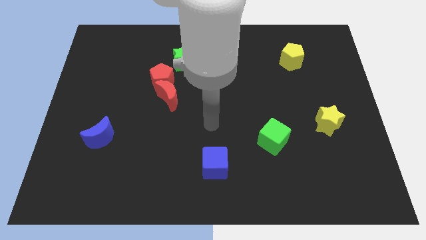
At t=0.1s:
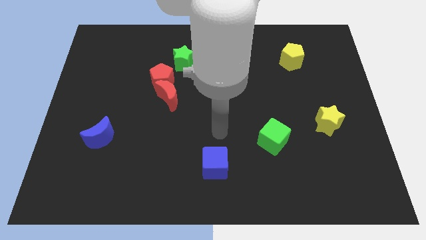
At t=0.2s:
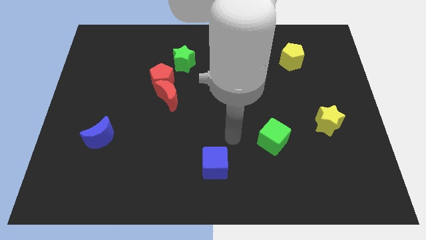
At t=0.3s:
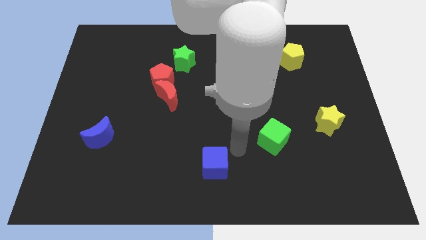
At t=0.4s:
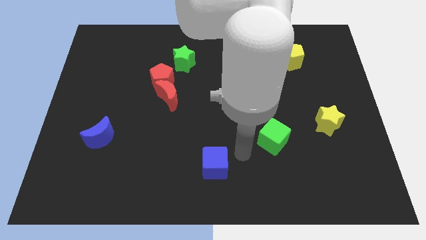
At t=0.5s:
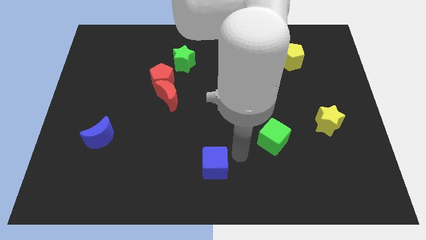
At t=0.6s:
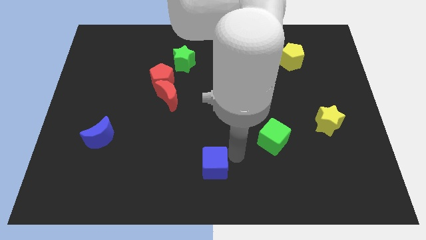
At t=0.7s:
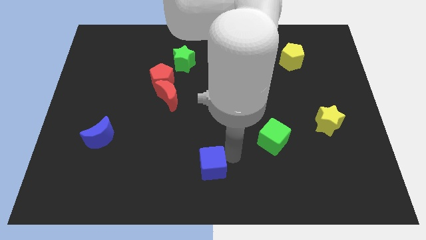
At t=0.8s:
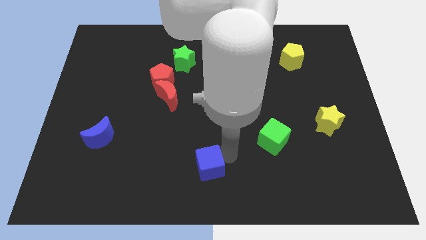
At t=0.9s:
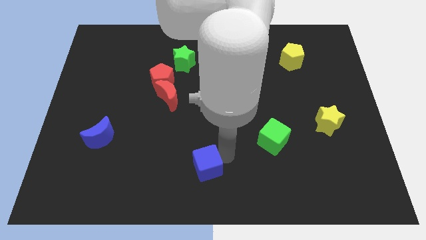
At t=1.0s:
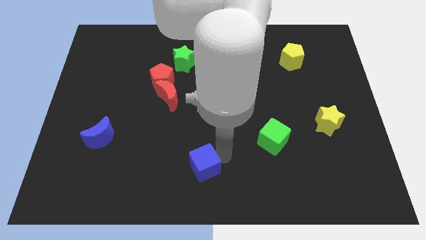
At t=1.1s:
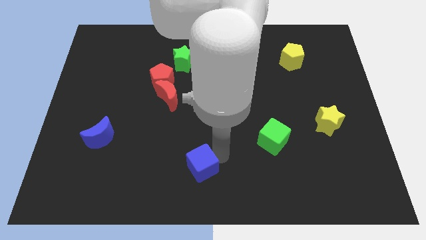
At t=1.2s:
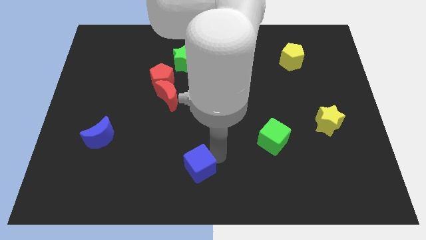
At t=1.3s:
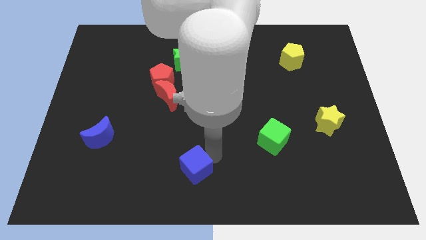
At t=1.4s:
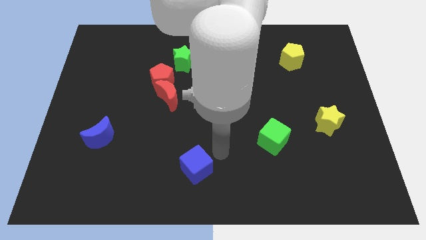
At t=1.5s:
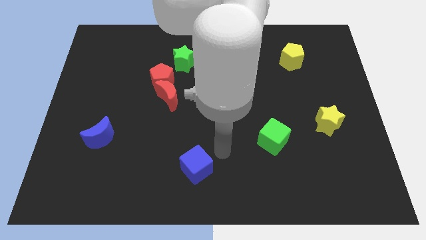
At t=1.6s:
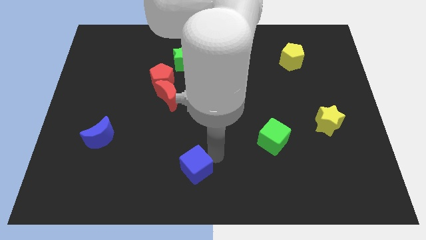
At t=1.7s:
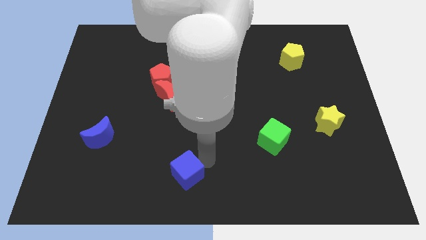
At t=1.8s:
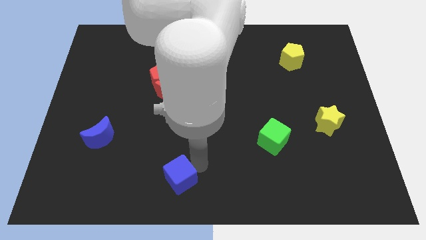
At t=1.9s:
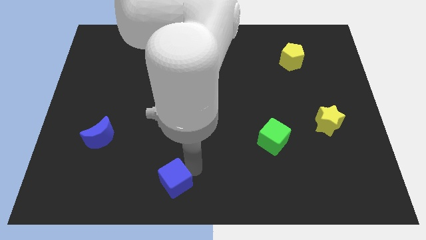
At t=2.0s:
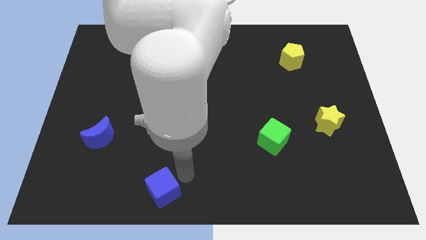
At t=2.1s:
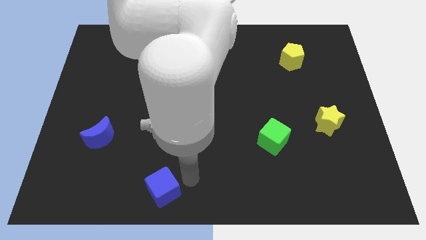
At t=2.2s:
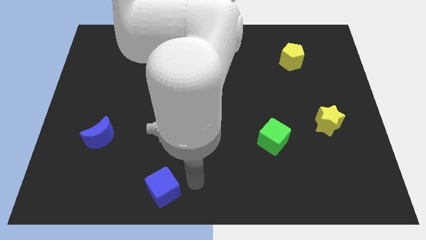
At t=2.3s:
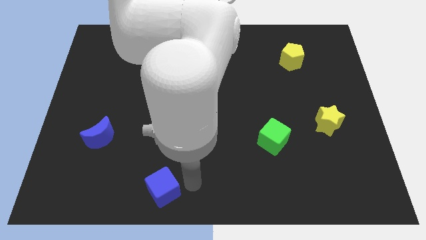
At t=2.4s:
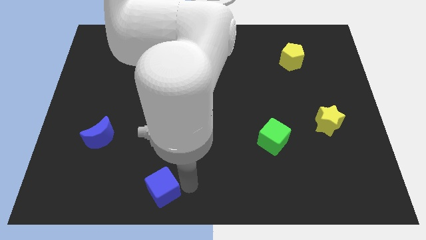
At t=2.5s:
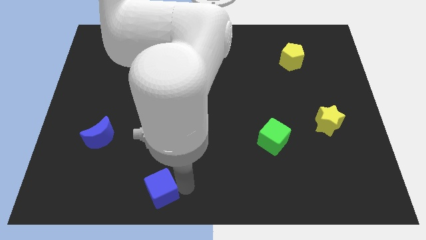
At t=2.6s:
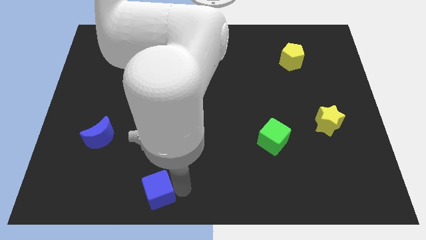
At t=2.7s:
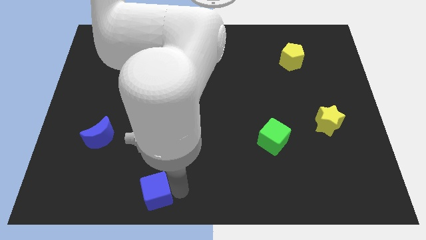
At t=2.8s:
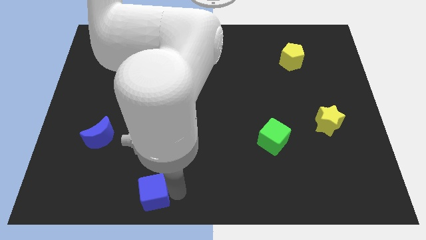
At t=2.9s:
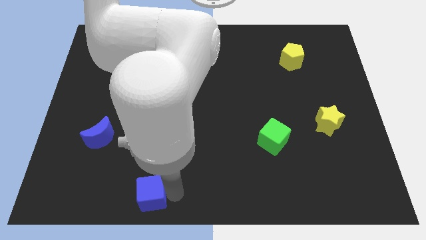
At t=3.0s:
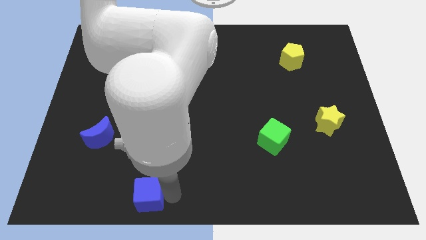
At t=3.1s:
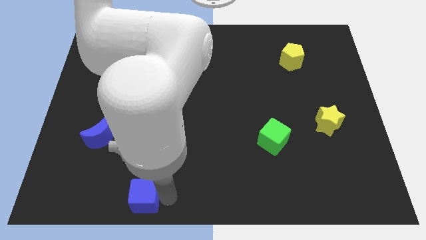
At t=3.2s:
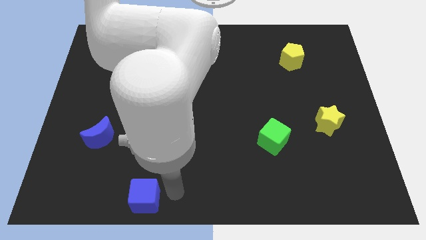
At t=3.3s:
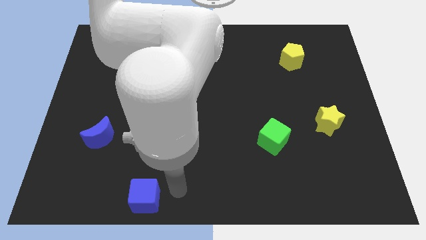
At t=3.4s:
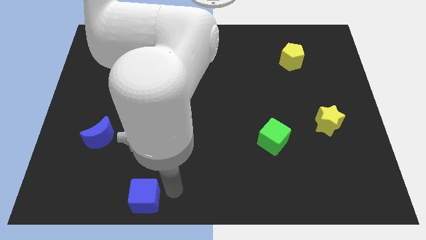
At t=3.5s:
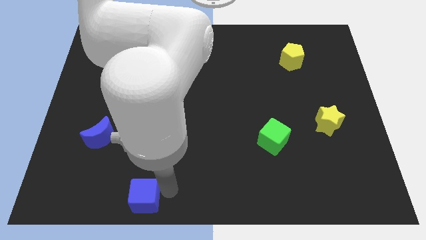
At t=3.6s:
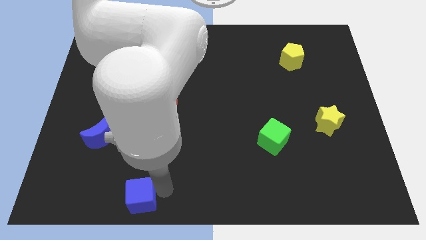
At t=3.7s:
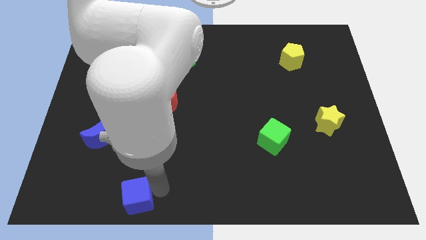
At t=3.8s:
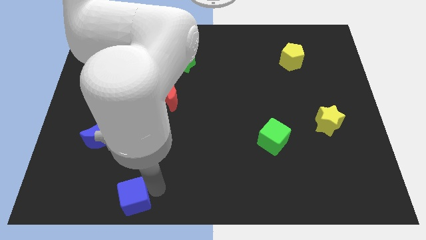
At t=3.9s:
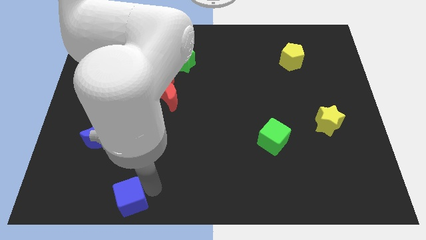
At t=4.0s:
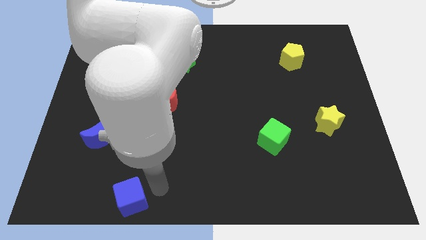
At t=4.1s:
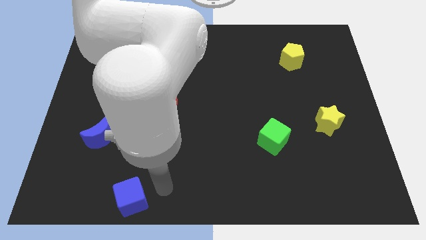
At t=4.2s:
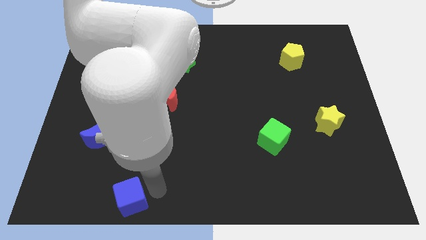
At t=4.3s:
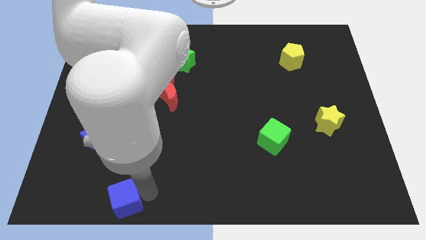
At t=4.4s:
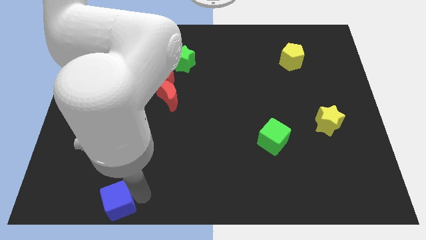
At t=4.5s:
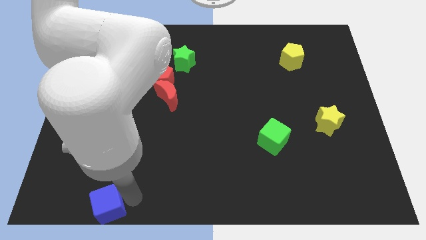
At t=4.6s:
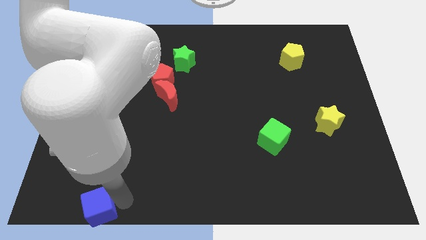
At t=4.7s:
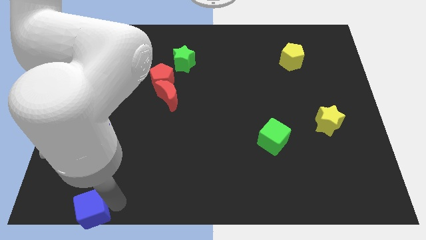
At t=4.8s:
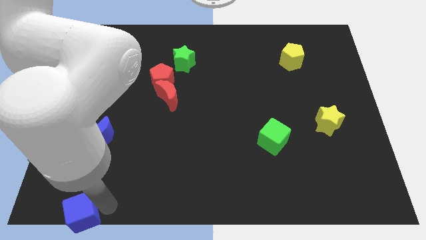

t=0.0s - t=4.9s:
put the blue cube to the bottom left

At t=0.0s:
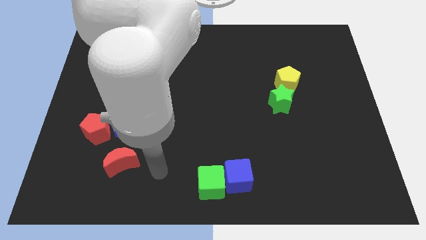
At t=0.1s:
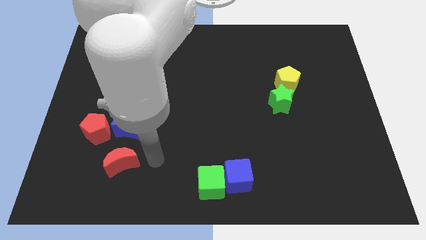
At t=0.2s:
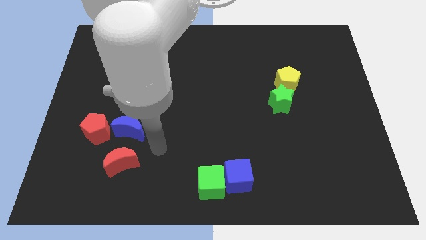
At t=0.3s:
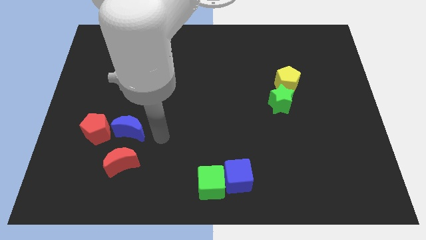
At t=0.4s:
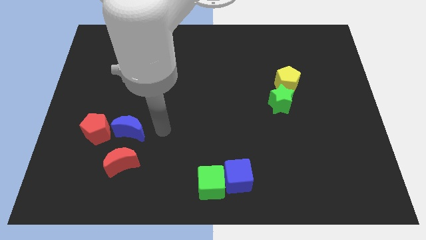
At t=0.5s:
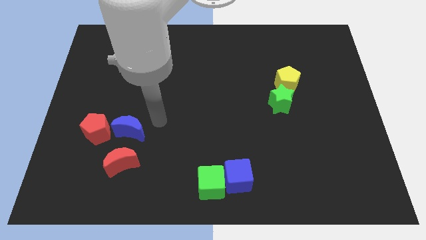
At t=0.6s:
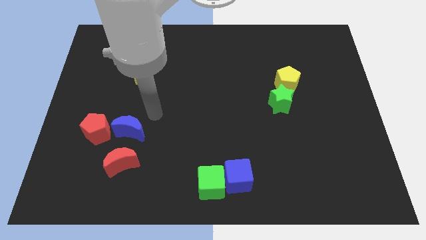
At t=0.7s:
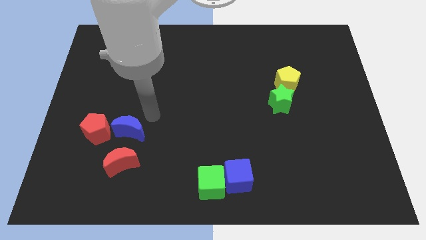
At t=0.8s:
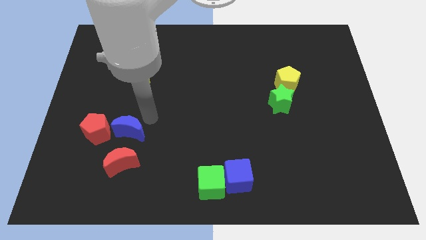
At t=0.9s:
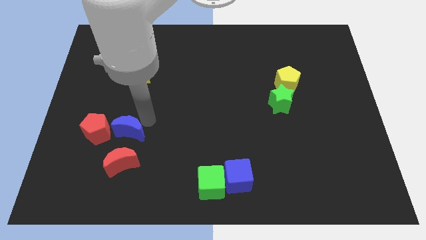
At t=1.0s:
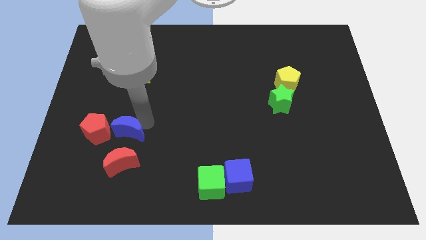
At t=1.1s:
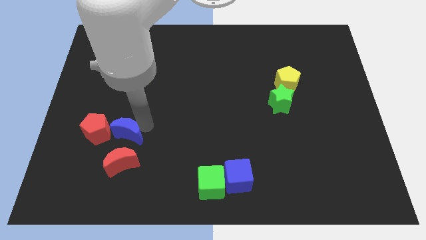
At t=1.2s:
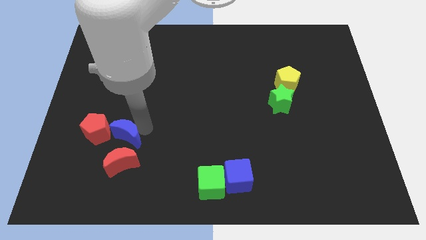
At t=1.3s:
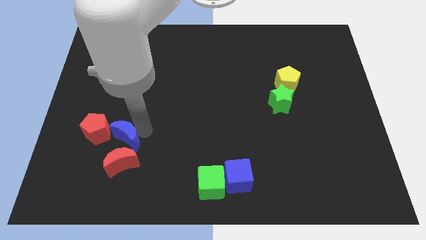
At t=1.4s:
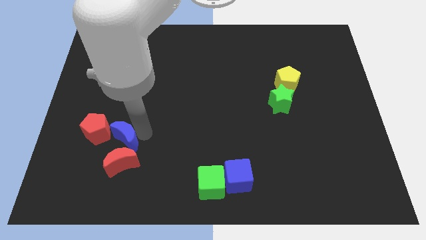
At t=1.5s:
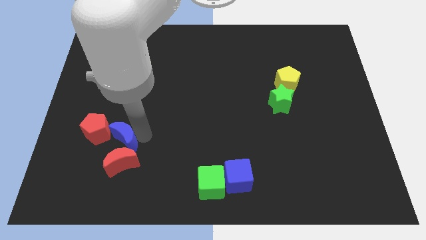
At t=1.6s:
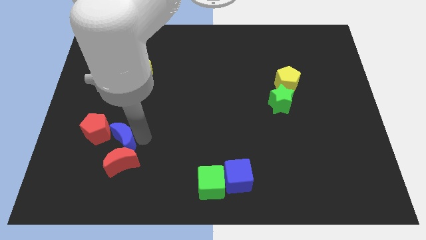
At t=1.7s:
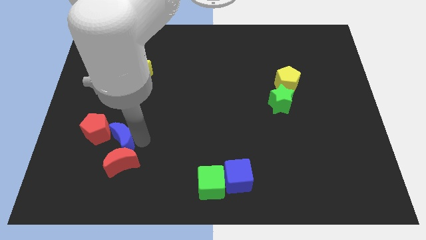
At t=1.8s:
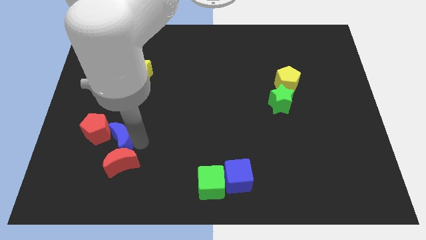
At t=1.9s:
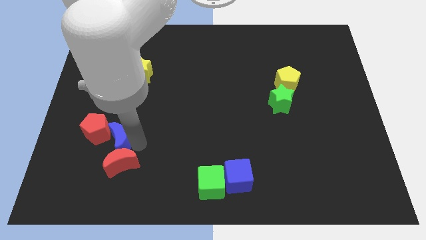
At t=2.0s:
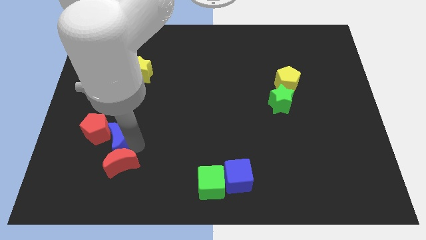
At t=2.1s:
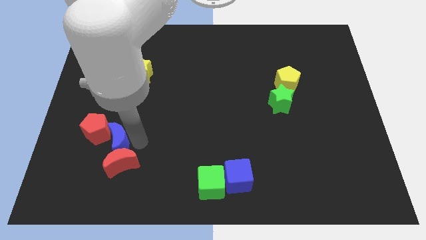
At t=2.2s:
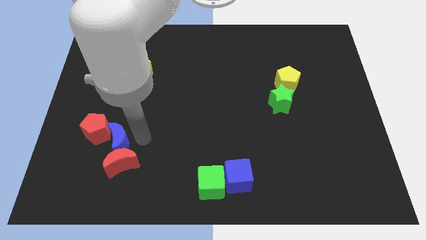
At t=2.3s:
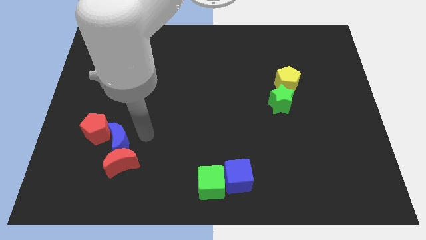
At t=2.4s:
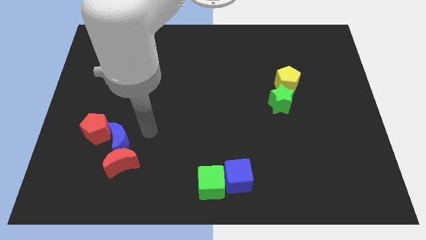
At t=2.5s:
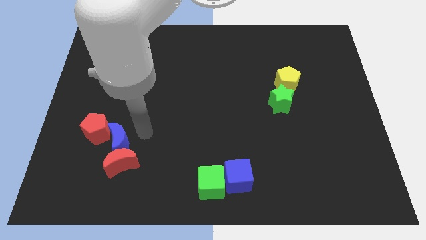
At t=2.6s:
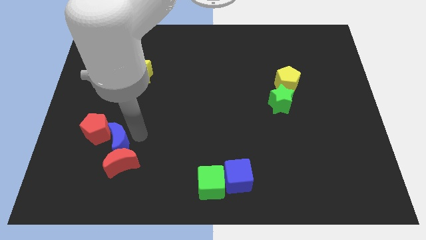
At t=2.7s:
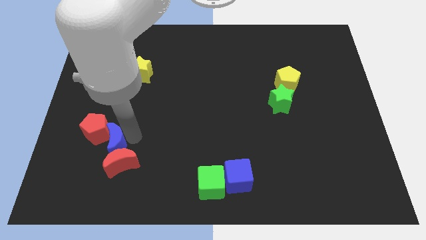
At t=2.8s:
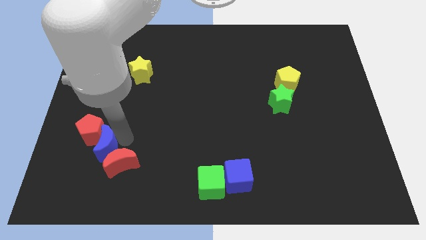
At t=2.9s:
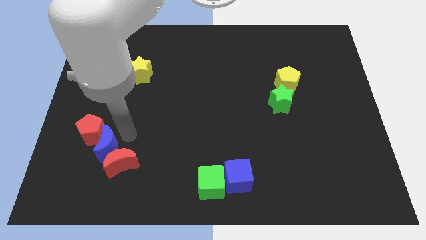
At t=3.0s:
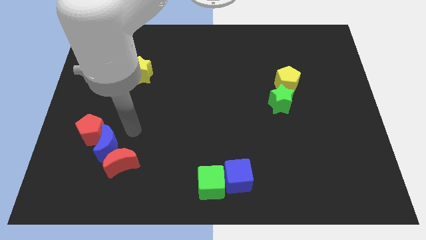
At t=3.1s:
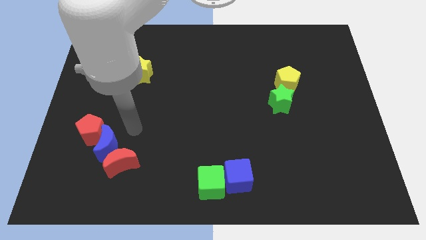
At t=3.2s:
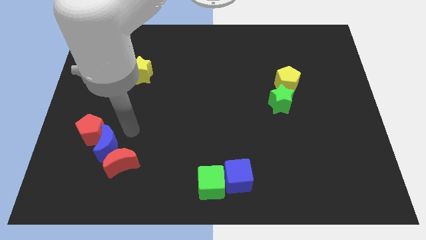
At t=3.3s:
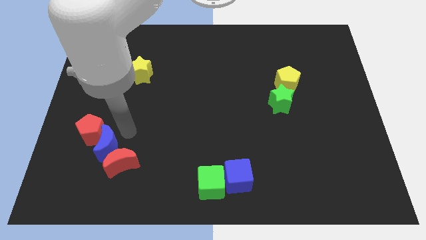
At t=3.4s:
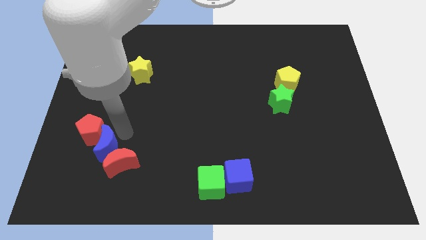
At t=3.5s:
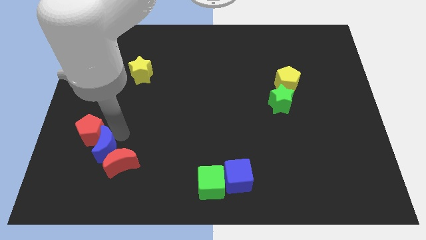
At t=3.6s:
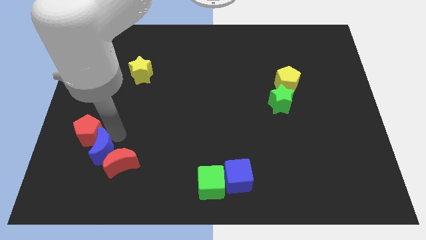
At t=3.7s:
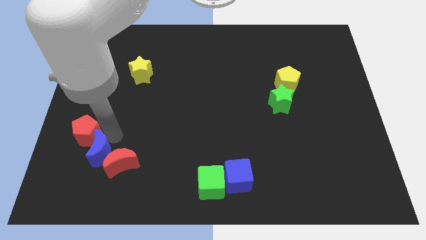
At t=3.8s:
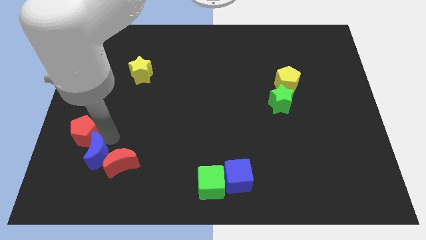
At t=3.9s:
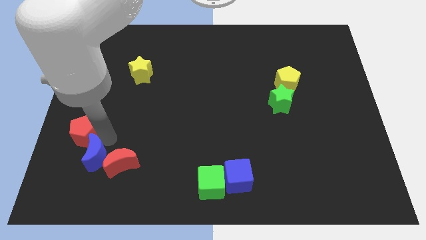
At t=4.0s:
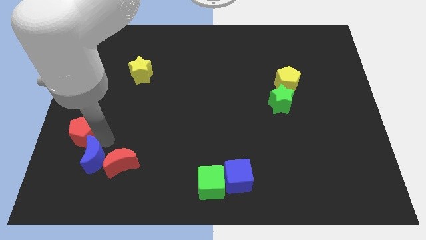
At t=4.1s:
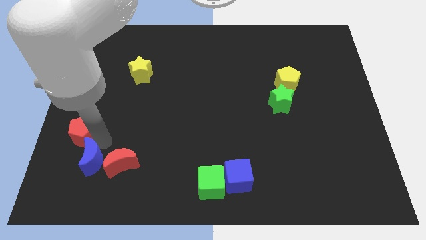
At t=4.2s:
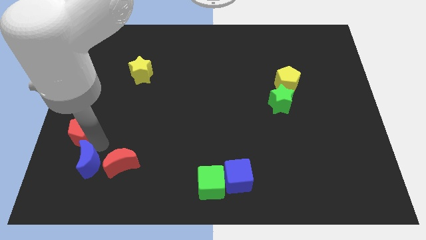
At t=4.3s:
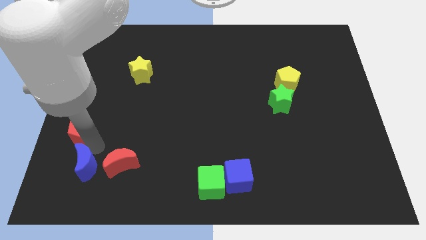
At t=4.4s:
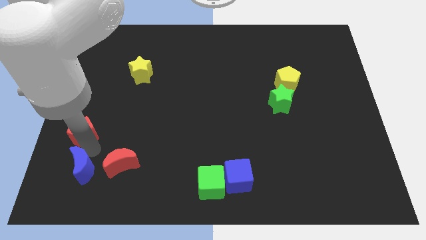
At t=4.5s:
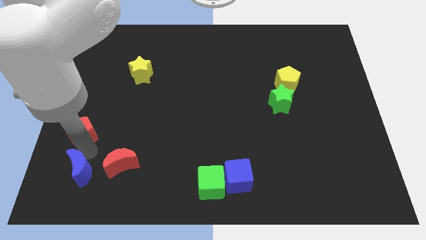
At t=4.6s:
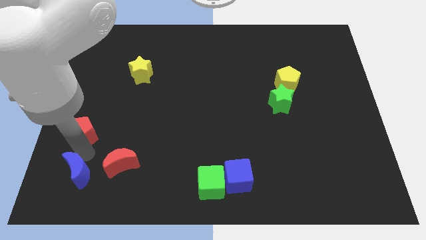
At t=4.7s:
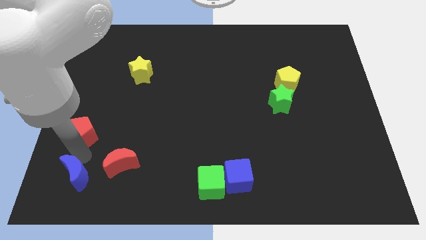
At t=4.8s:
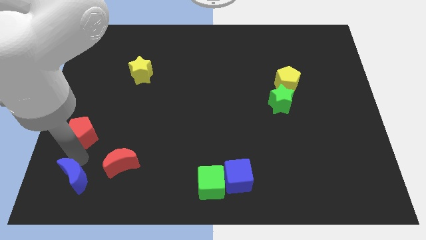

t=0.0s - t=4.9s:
put the blue moon to the bottom left
